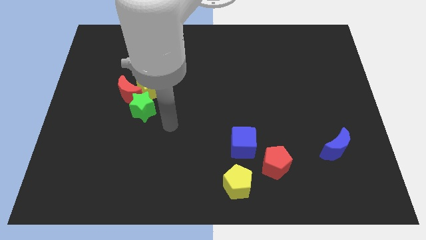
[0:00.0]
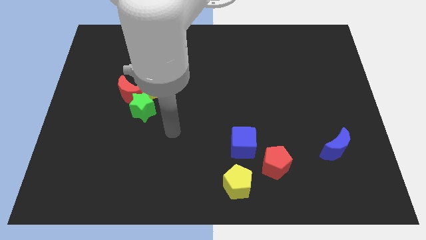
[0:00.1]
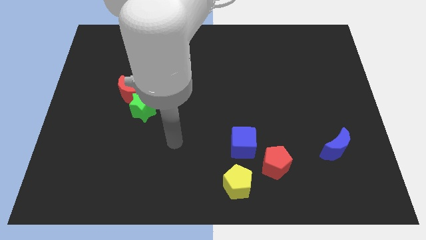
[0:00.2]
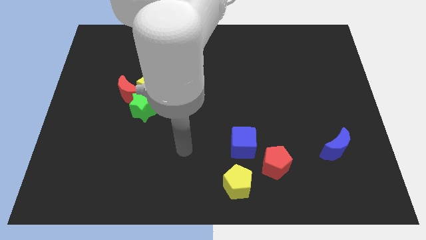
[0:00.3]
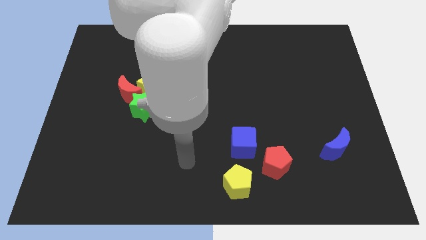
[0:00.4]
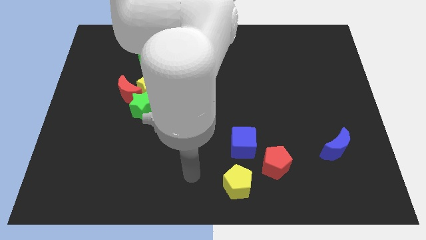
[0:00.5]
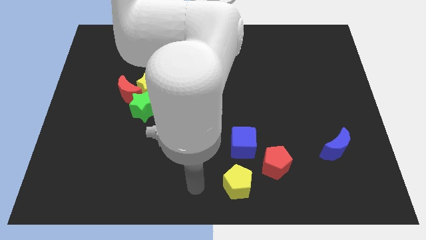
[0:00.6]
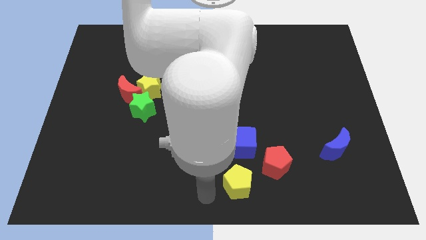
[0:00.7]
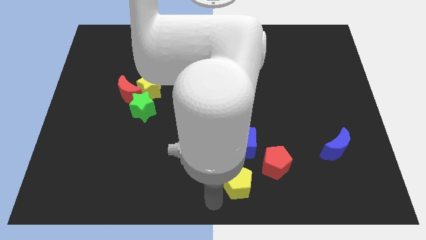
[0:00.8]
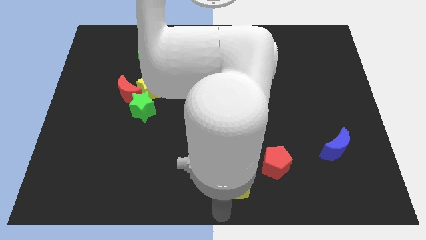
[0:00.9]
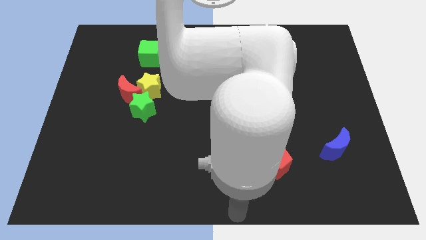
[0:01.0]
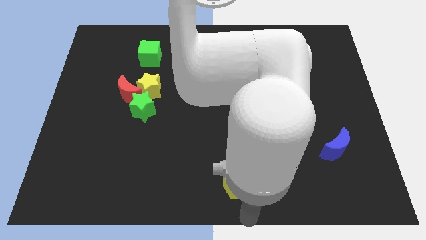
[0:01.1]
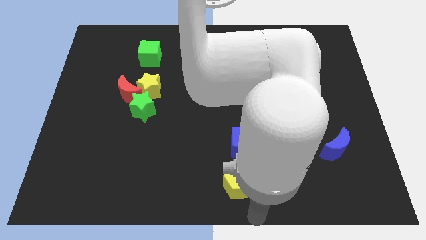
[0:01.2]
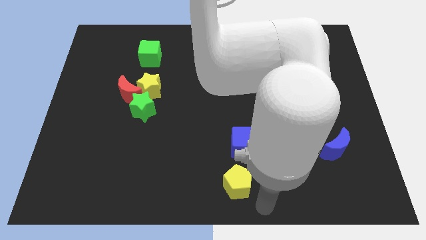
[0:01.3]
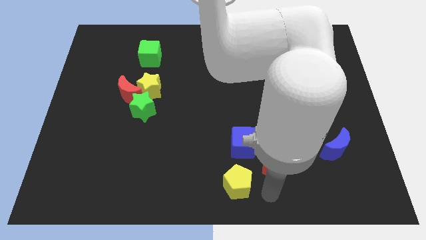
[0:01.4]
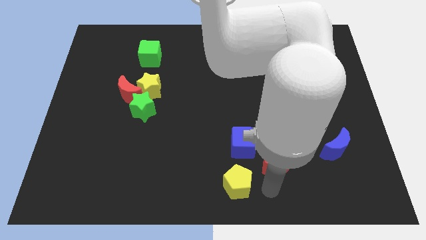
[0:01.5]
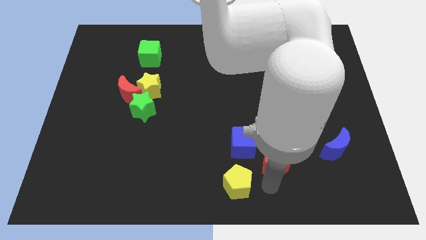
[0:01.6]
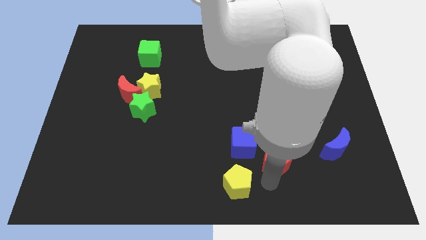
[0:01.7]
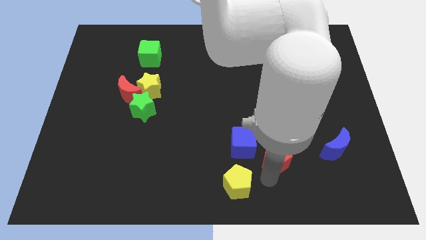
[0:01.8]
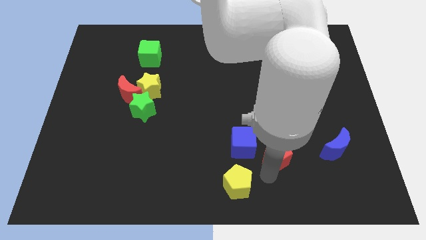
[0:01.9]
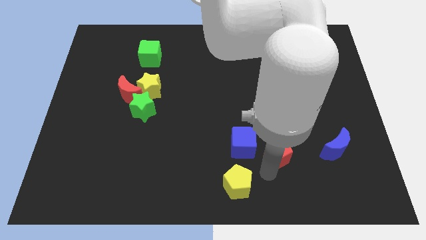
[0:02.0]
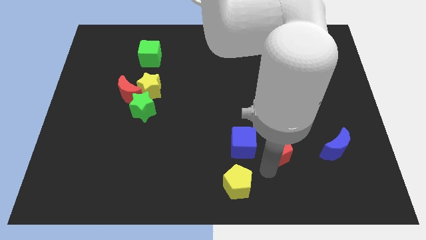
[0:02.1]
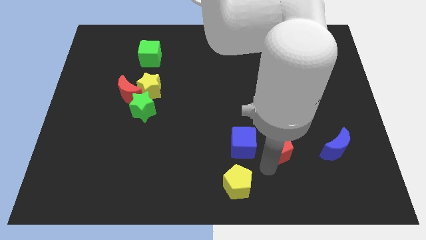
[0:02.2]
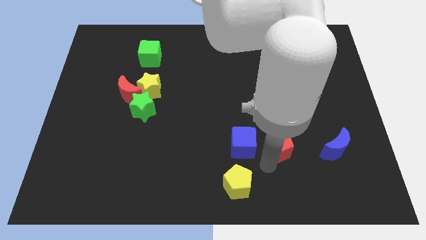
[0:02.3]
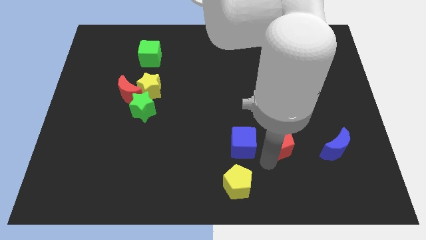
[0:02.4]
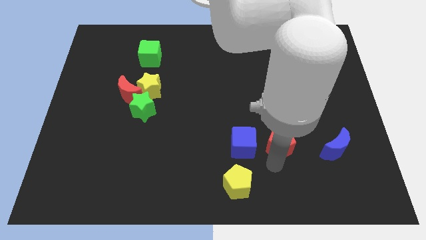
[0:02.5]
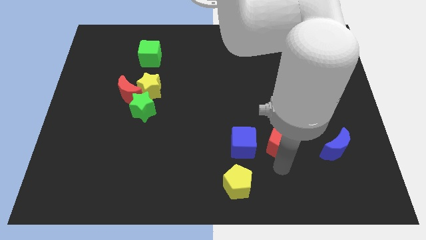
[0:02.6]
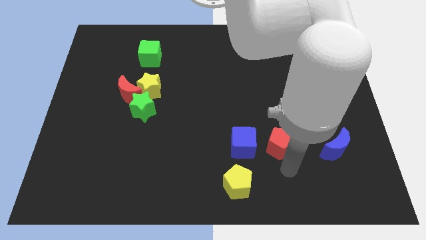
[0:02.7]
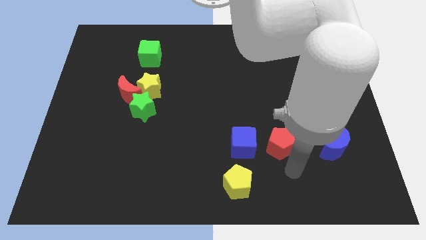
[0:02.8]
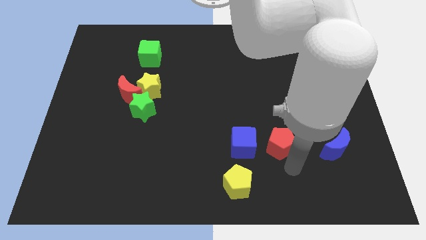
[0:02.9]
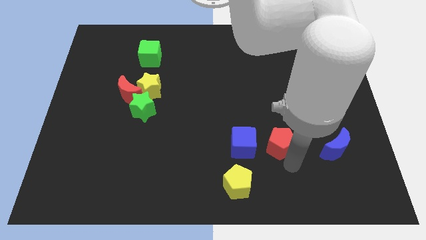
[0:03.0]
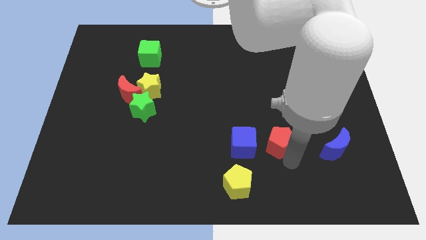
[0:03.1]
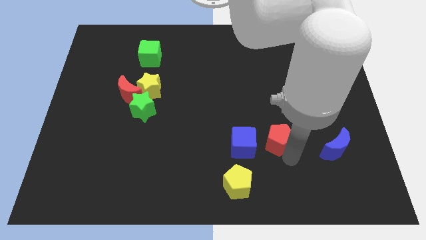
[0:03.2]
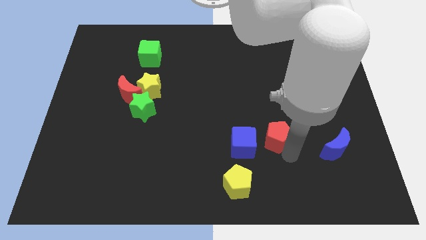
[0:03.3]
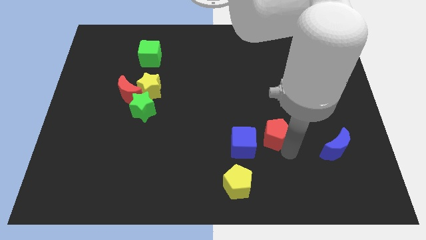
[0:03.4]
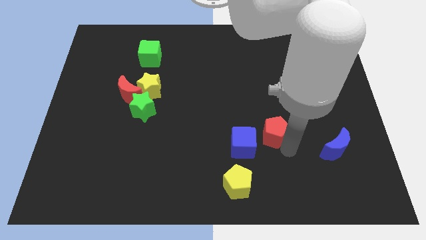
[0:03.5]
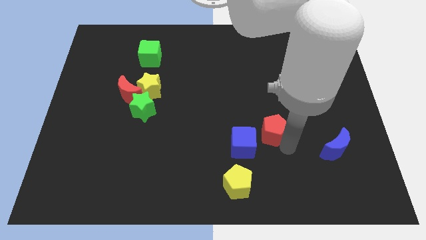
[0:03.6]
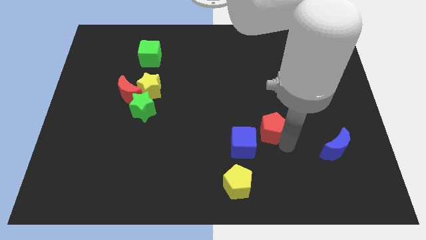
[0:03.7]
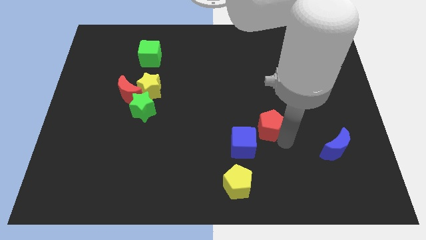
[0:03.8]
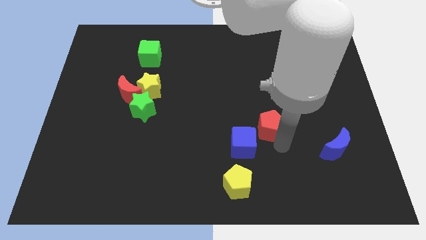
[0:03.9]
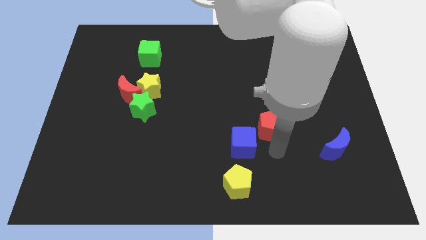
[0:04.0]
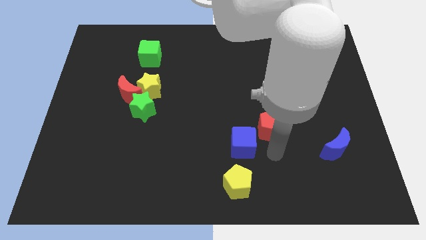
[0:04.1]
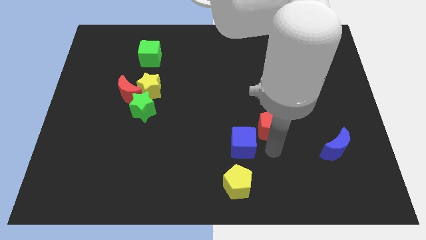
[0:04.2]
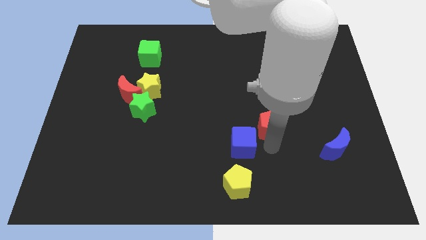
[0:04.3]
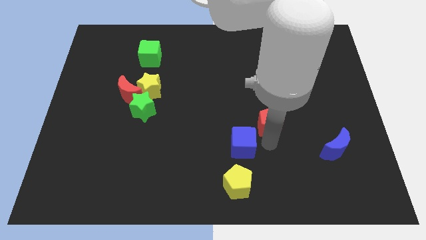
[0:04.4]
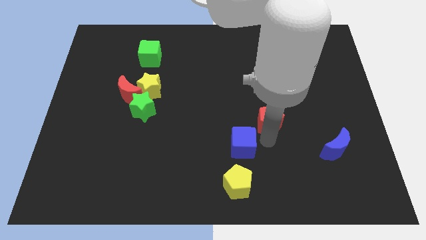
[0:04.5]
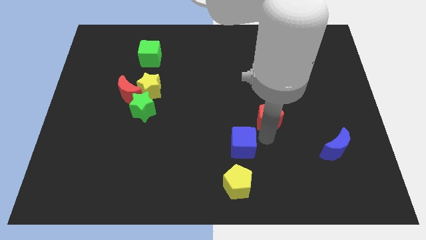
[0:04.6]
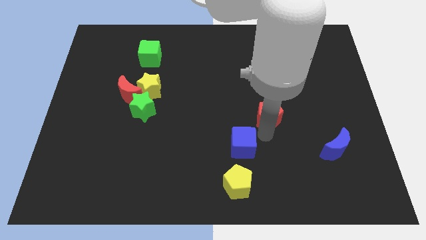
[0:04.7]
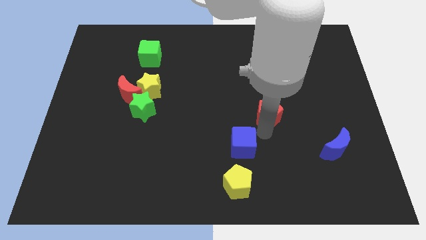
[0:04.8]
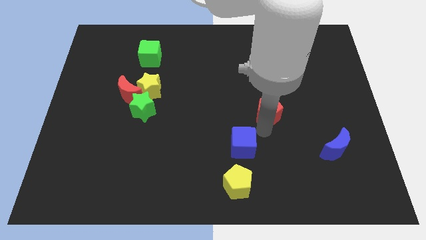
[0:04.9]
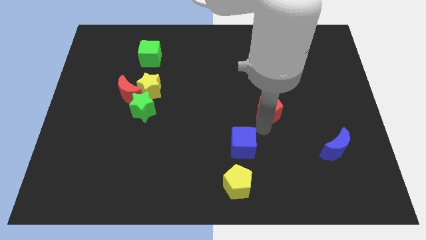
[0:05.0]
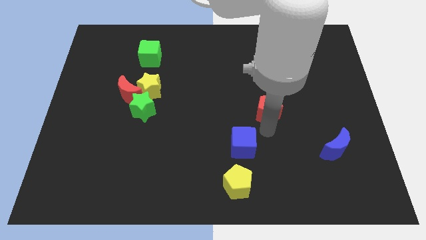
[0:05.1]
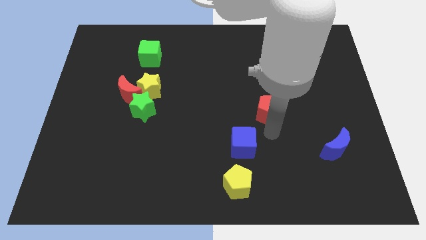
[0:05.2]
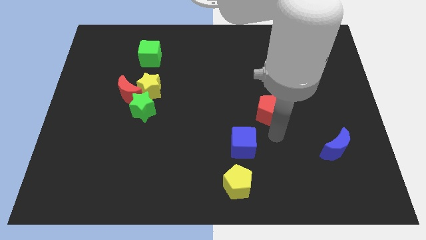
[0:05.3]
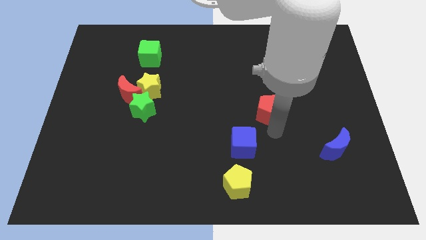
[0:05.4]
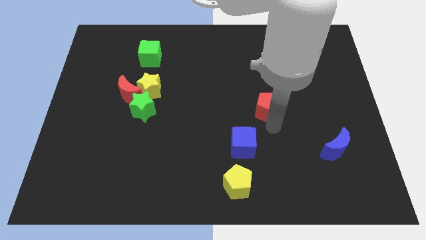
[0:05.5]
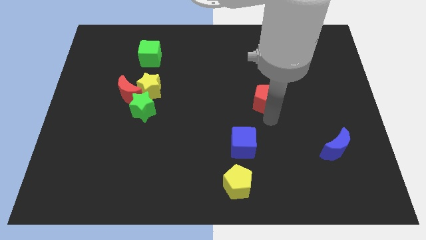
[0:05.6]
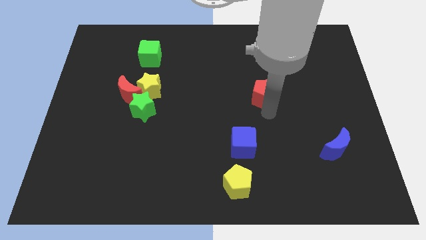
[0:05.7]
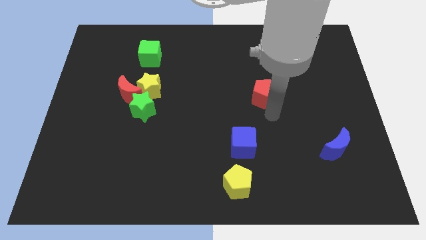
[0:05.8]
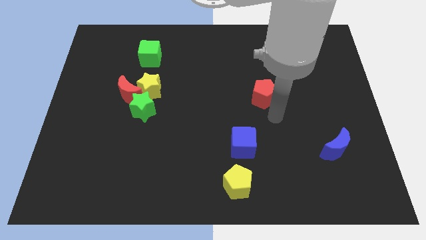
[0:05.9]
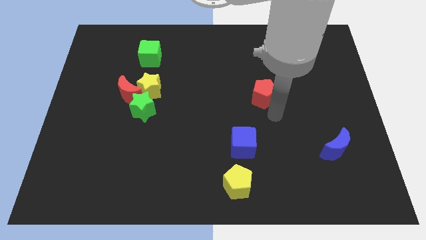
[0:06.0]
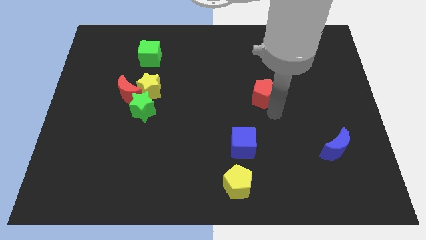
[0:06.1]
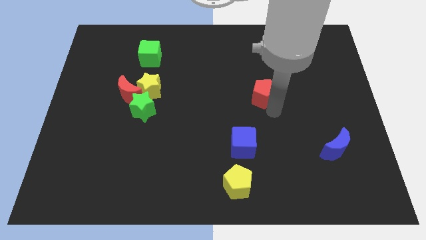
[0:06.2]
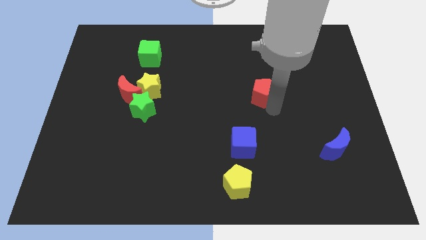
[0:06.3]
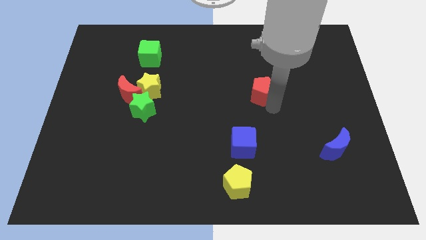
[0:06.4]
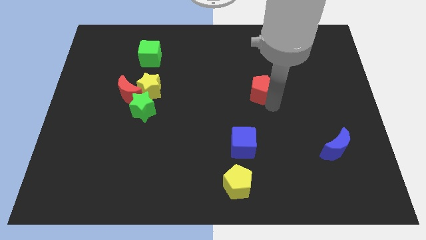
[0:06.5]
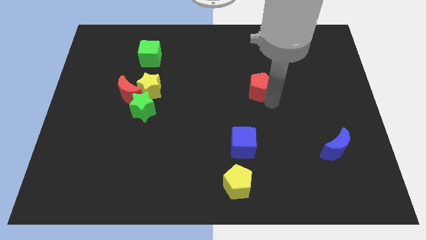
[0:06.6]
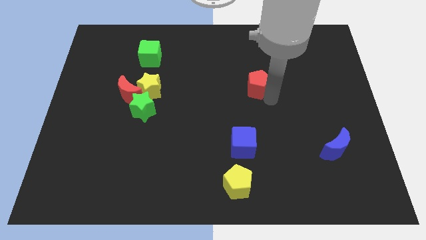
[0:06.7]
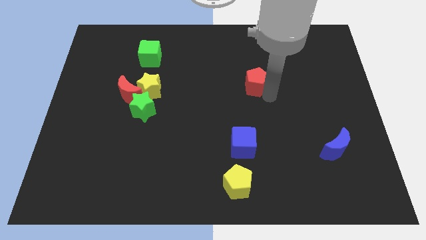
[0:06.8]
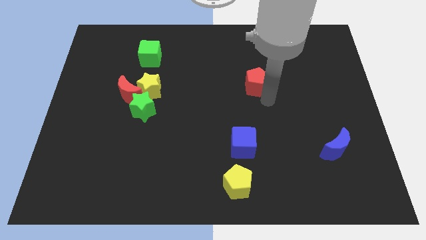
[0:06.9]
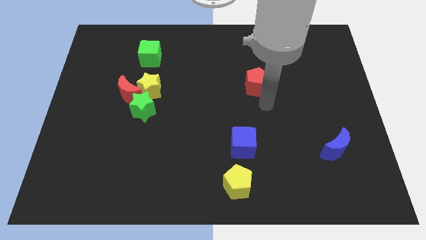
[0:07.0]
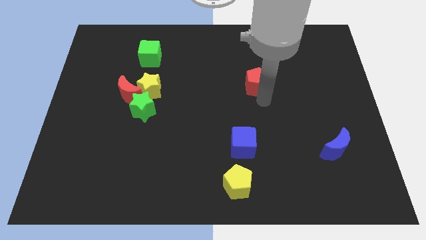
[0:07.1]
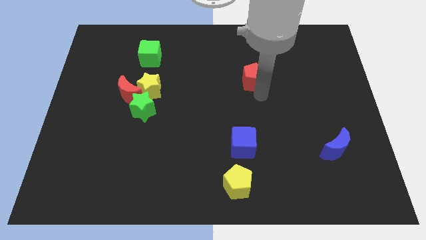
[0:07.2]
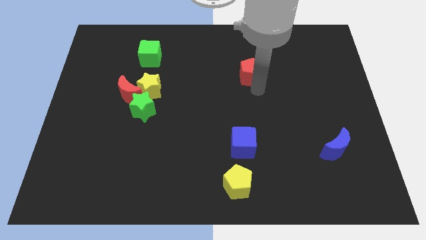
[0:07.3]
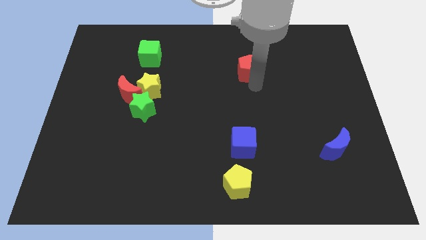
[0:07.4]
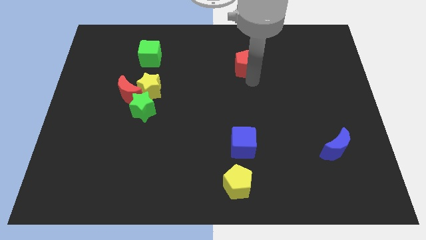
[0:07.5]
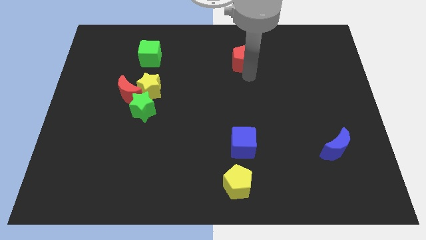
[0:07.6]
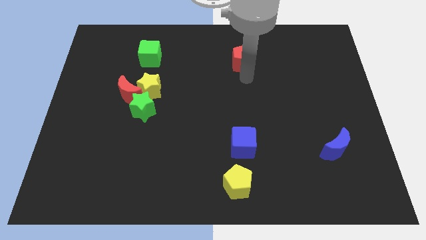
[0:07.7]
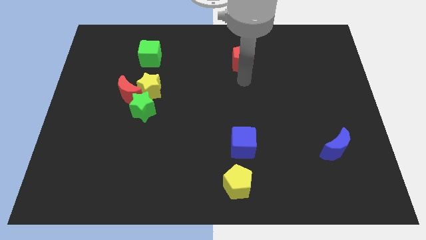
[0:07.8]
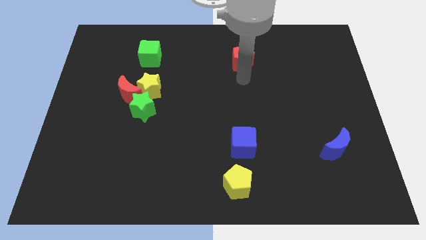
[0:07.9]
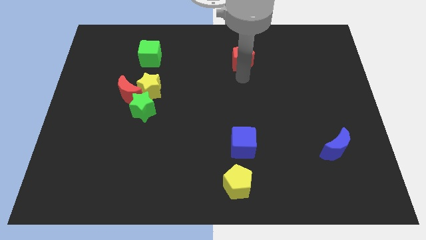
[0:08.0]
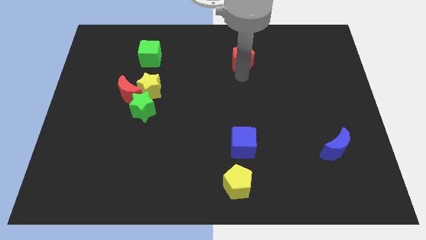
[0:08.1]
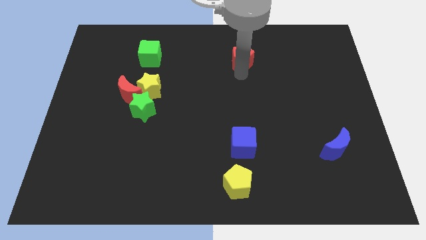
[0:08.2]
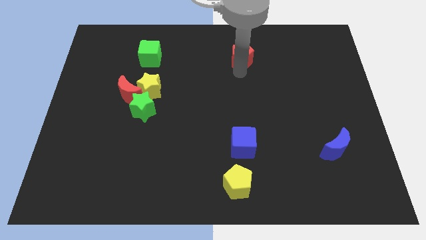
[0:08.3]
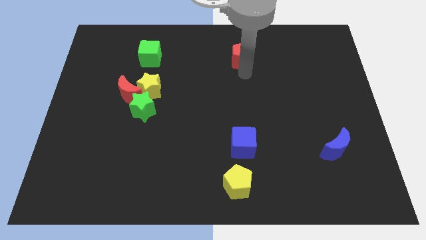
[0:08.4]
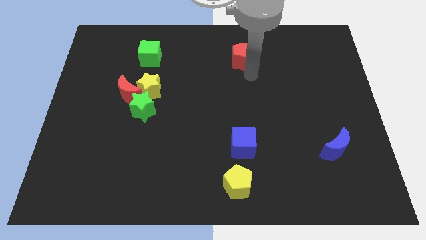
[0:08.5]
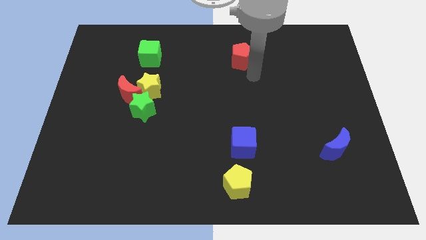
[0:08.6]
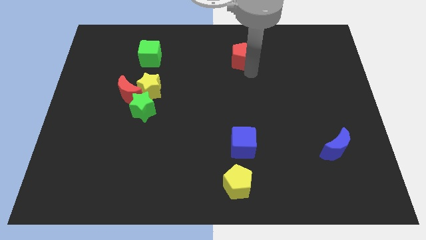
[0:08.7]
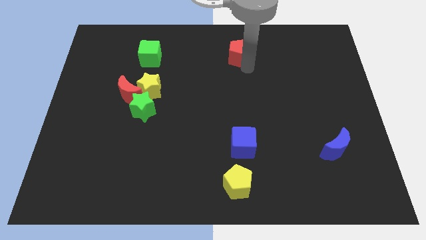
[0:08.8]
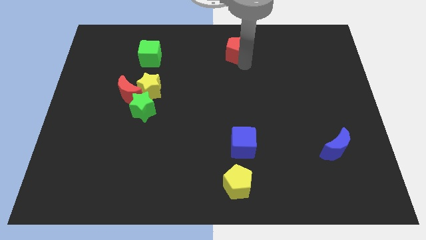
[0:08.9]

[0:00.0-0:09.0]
push the red pentagon to the top side
